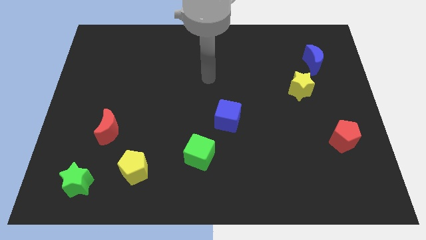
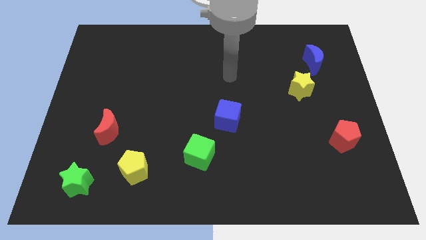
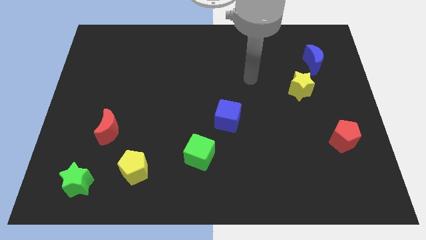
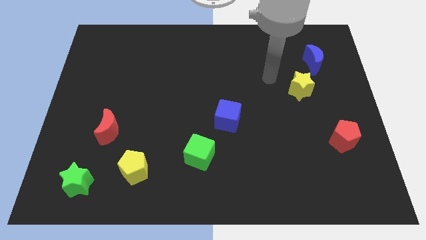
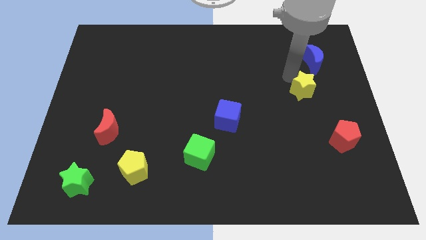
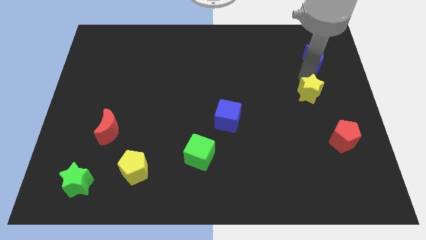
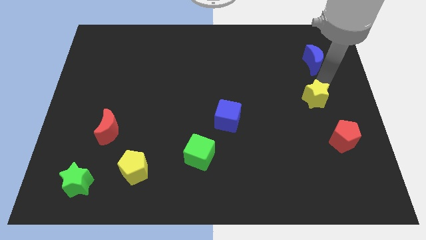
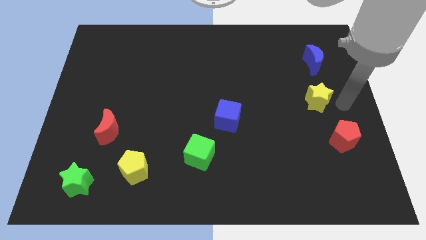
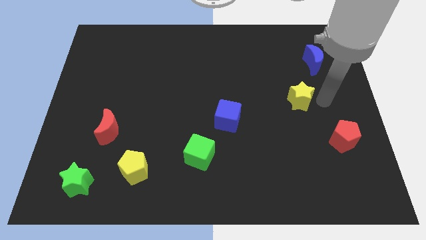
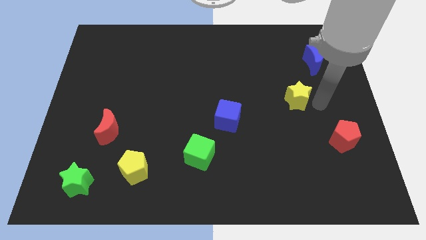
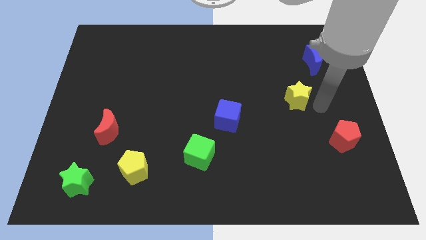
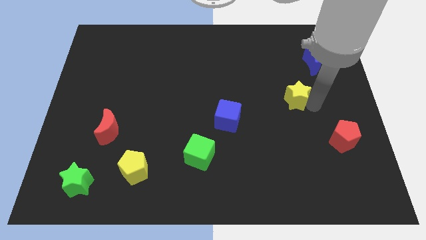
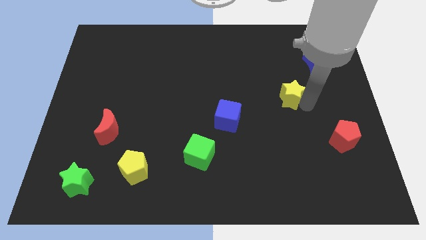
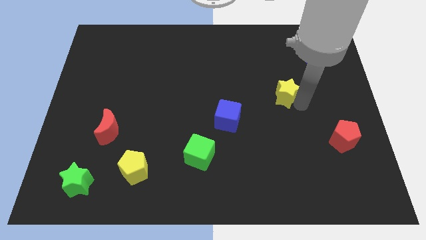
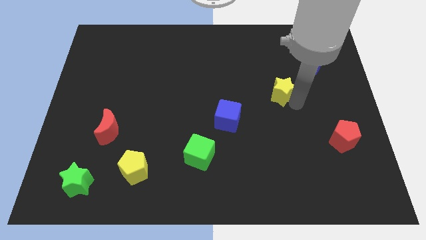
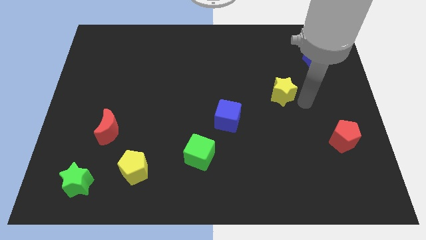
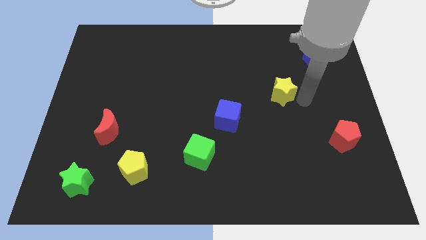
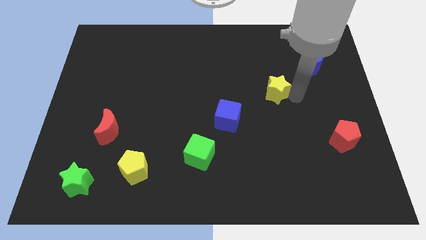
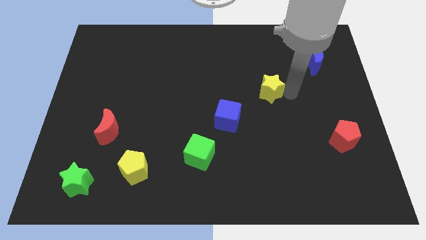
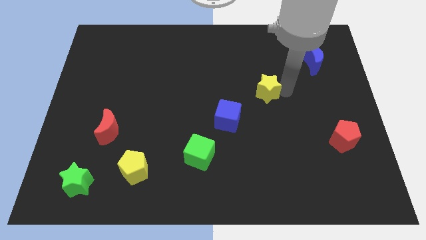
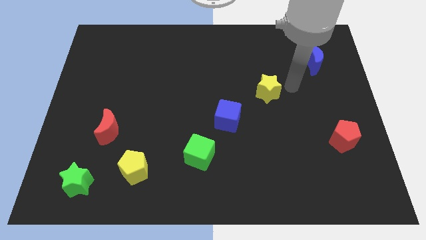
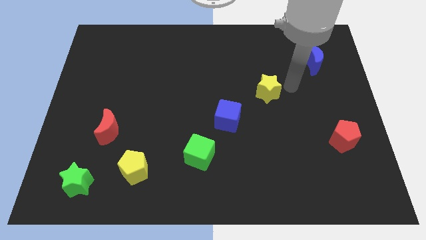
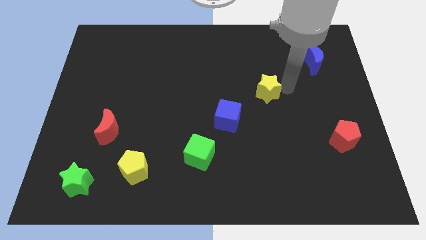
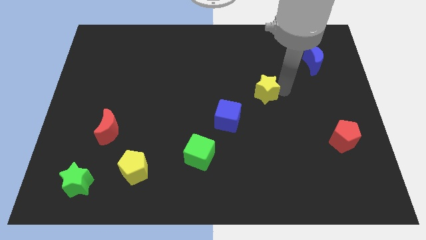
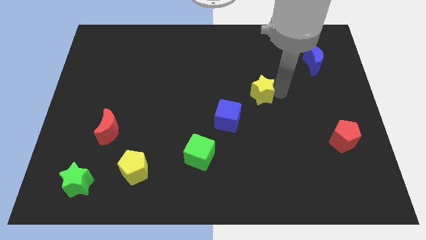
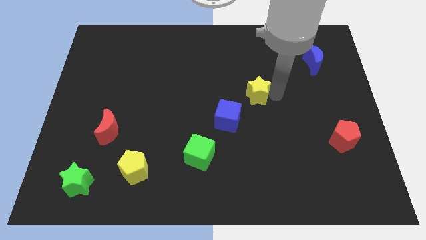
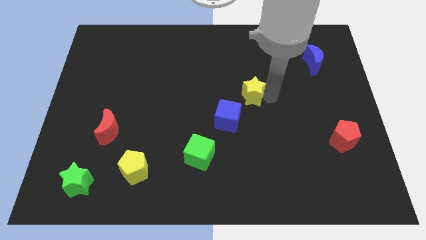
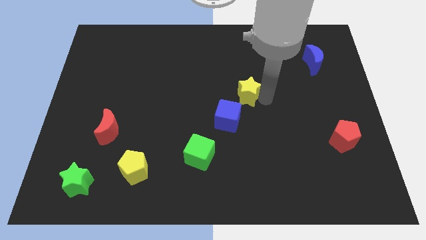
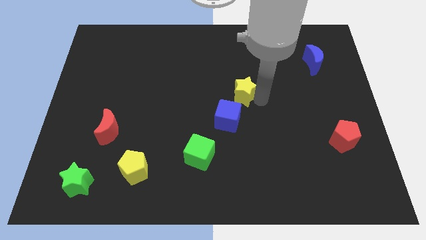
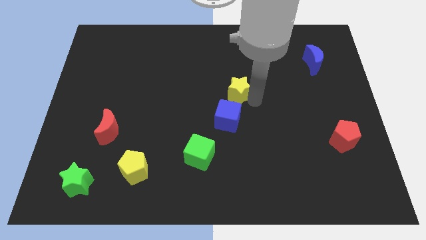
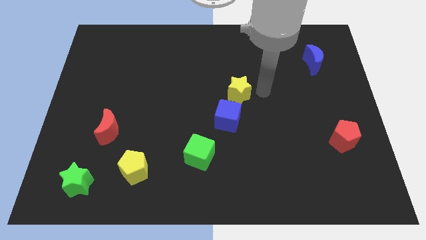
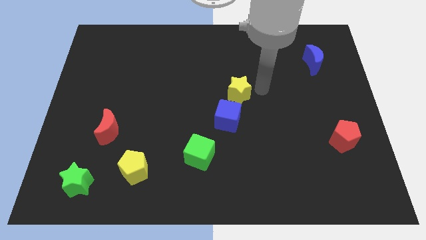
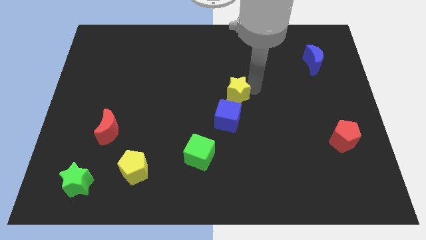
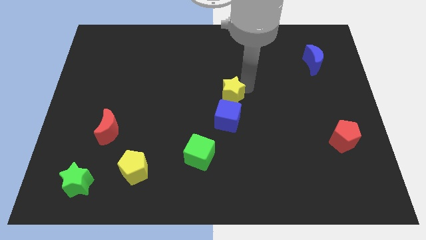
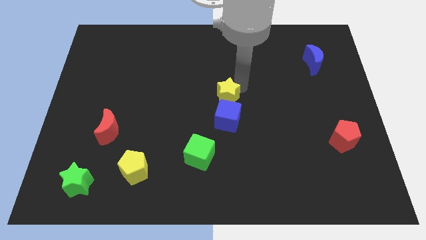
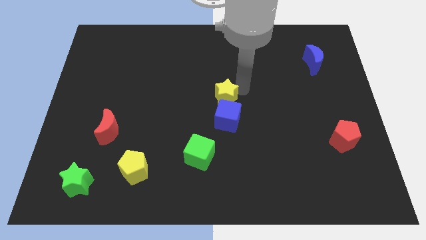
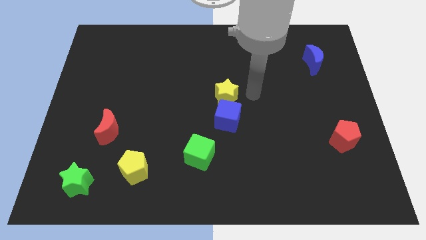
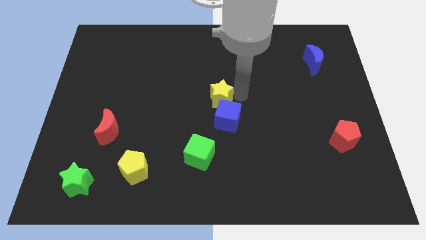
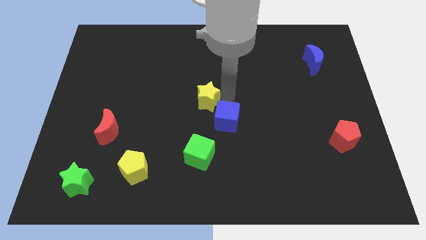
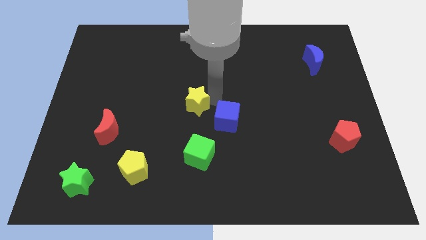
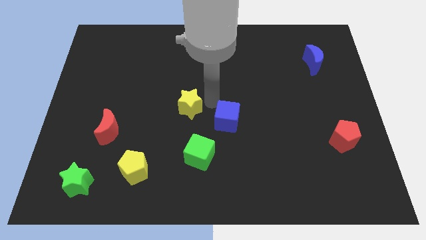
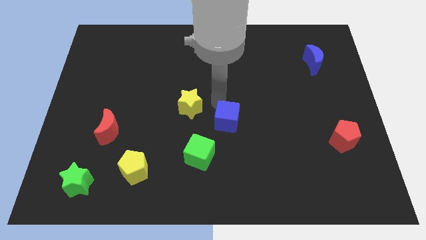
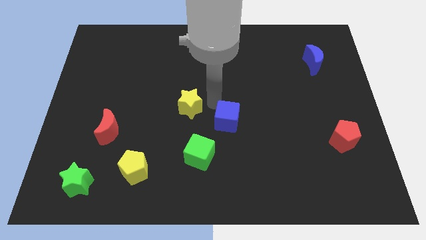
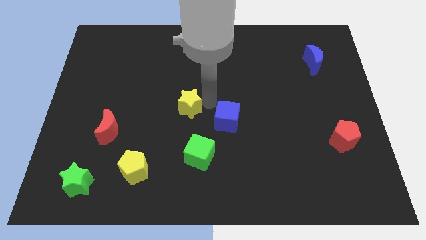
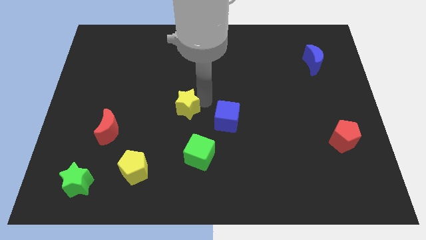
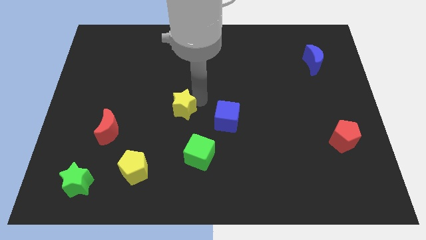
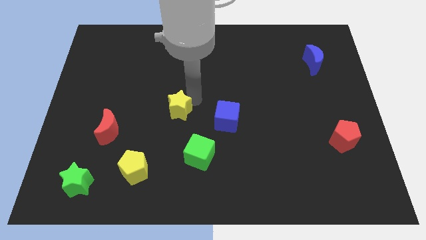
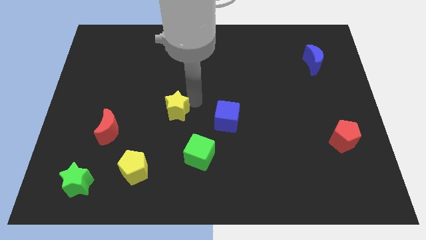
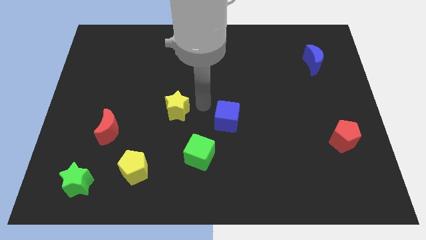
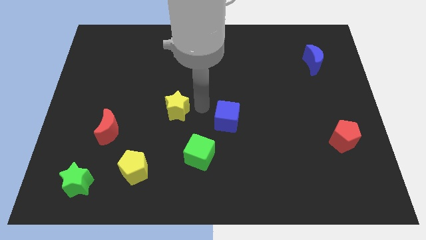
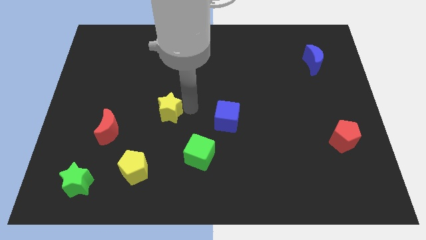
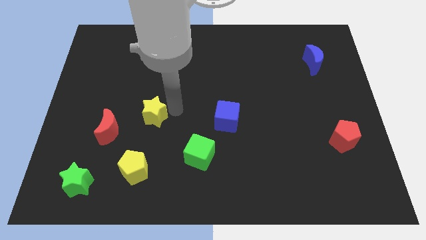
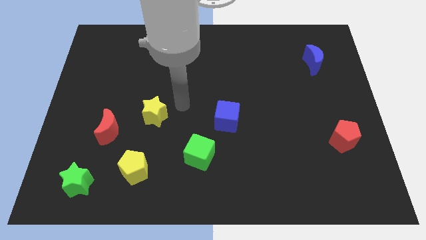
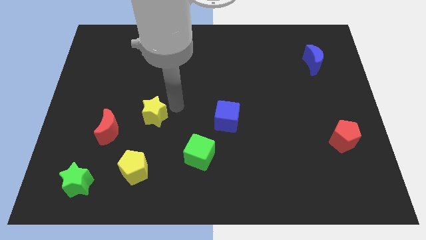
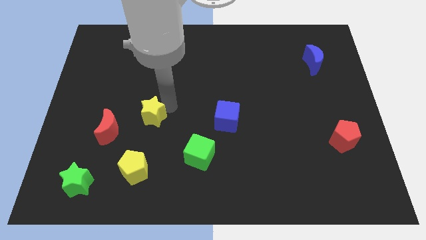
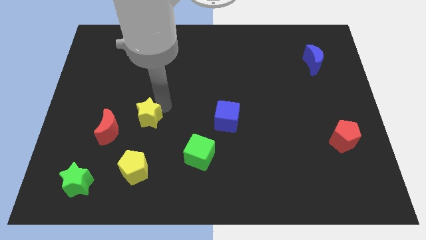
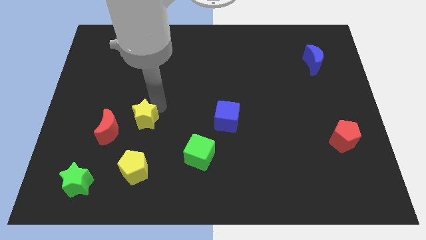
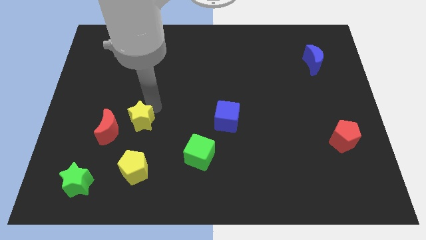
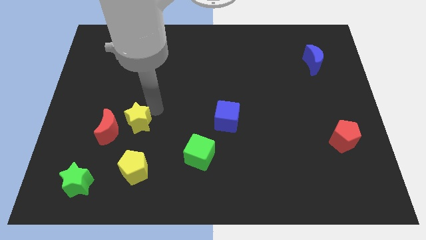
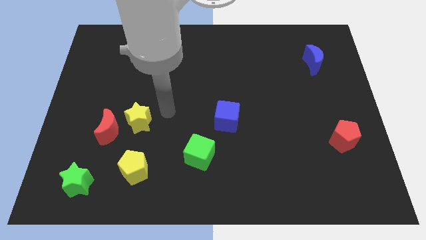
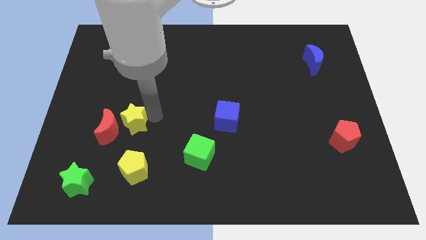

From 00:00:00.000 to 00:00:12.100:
slide the yellow star towards the red moon

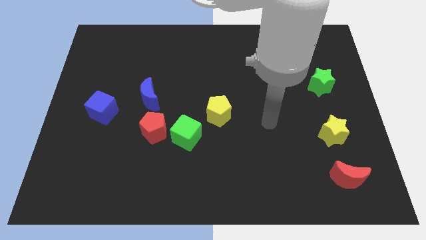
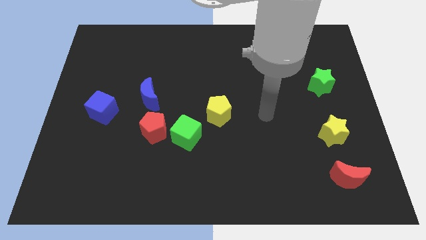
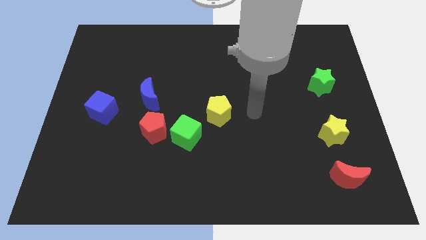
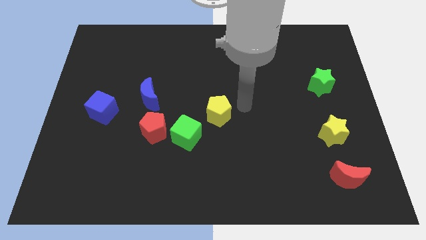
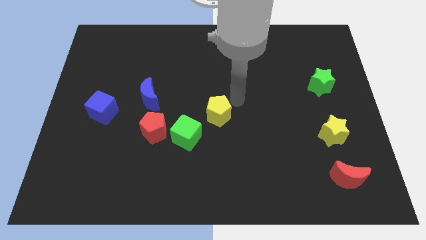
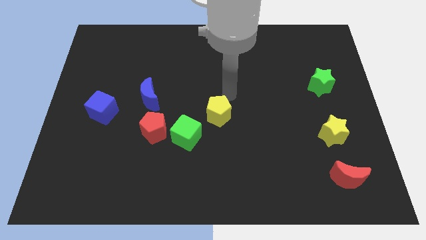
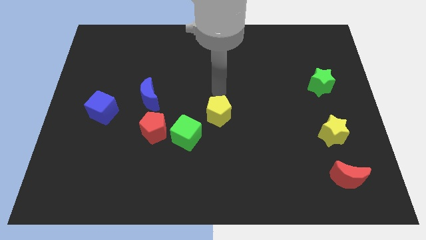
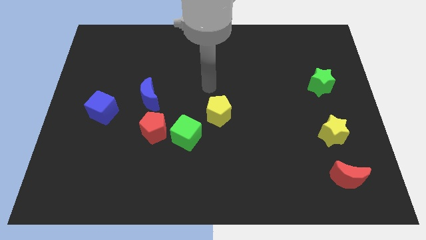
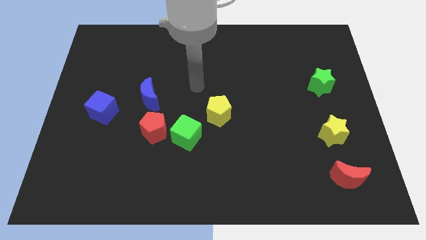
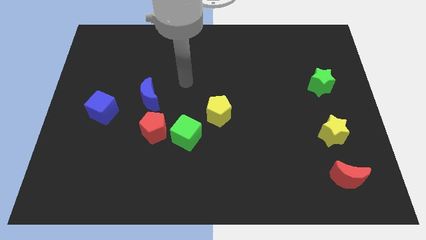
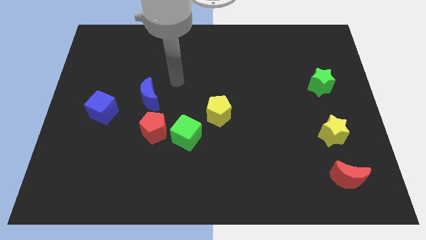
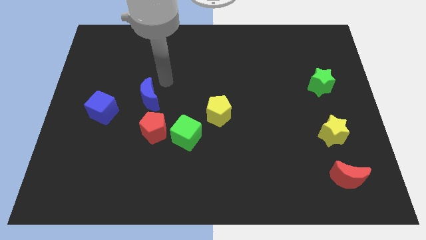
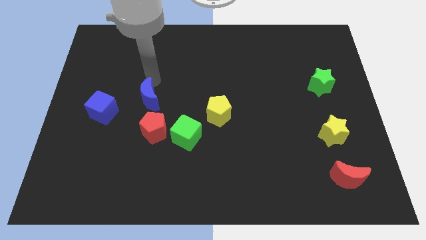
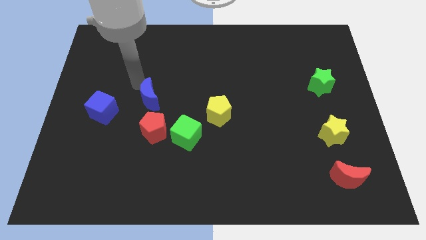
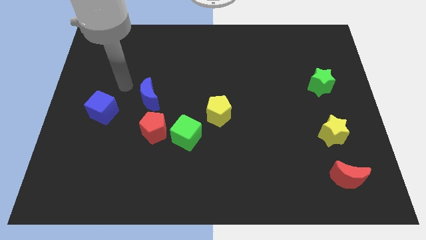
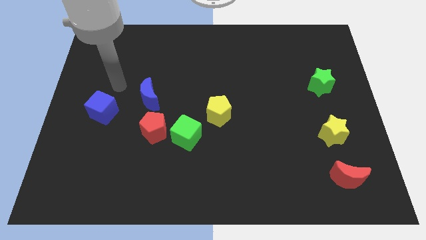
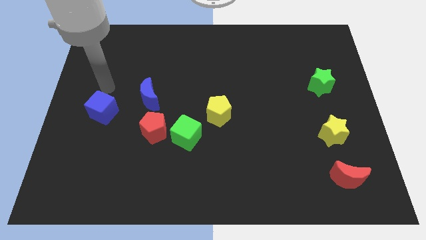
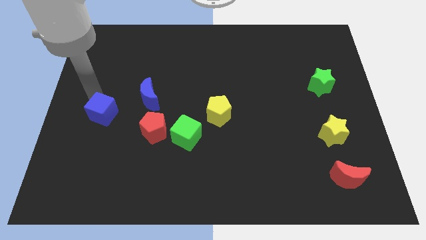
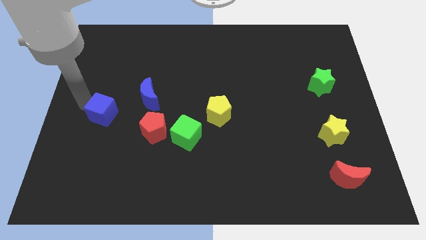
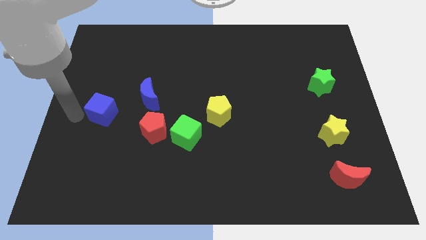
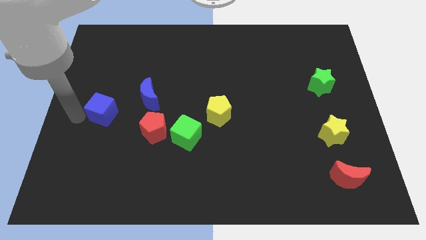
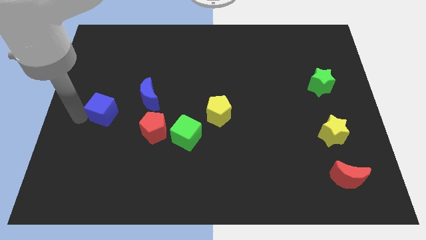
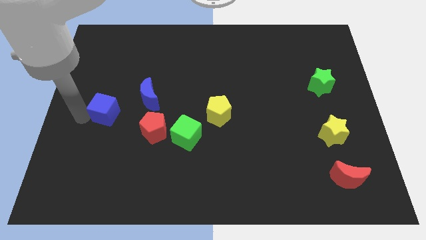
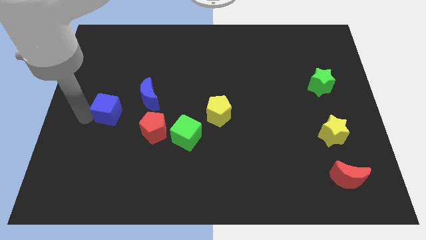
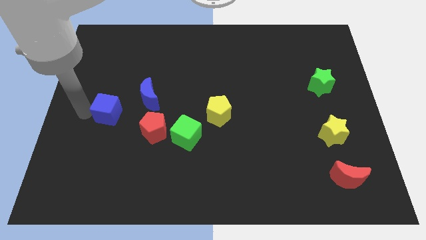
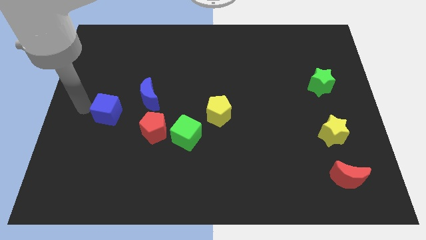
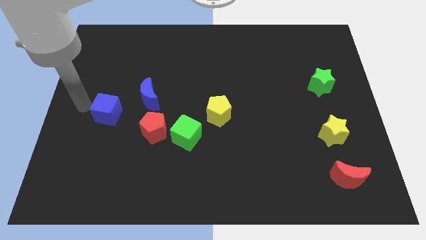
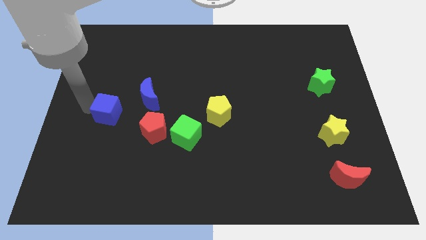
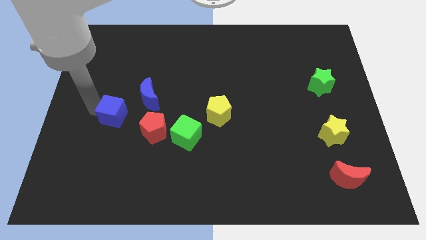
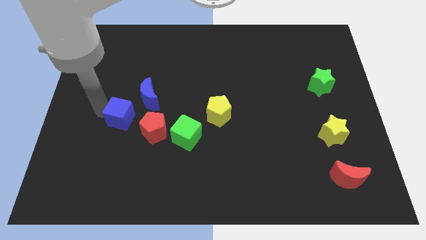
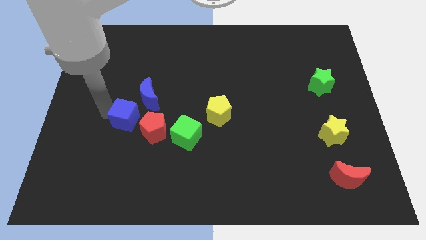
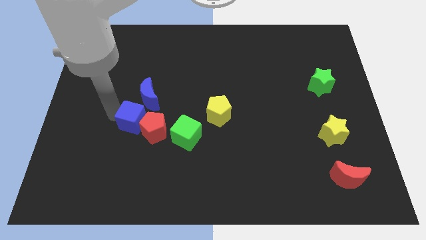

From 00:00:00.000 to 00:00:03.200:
put the blue cube towards the red pentagon
